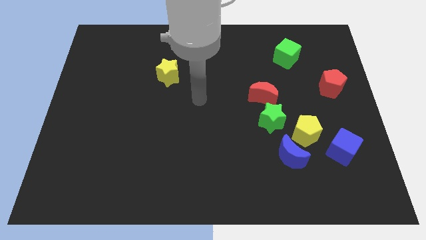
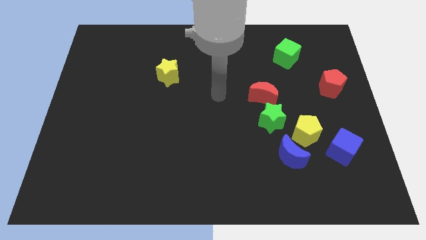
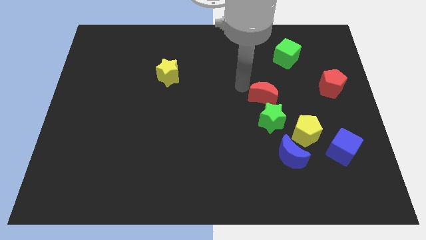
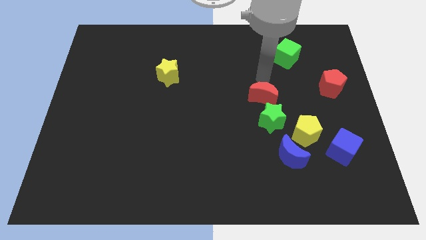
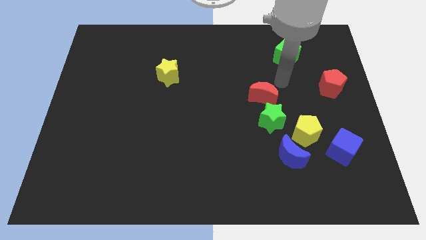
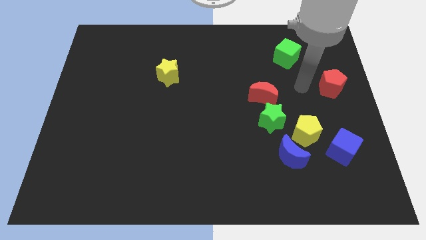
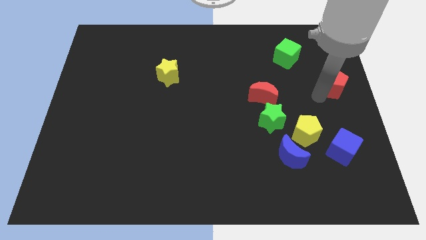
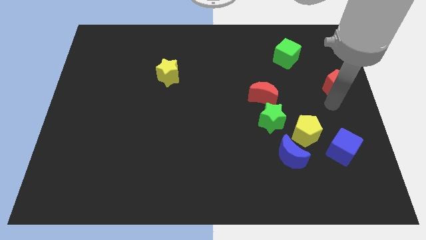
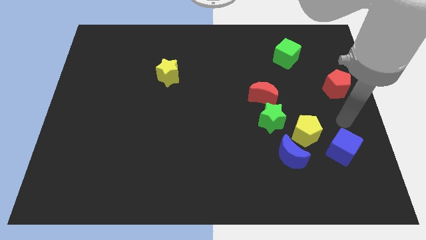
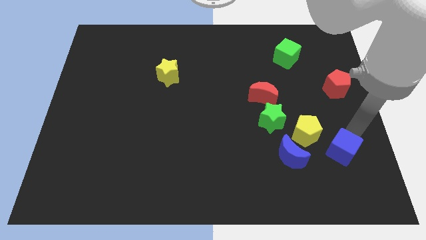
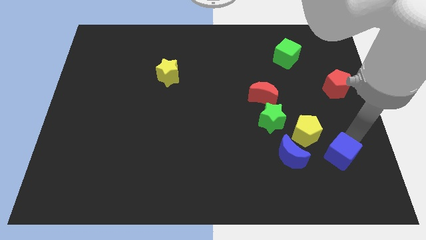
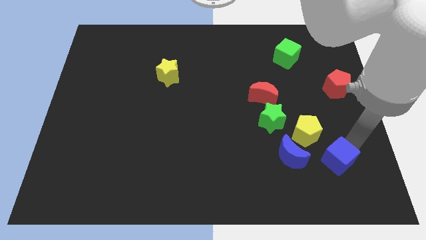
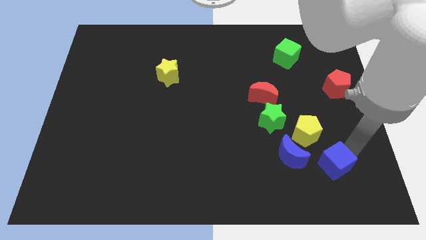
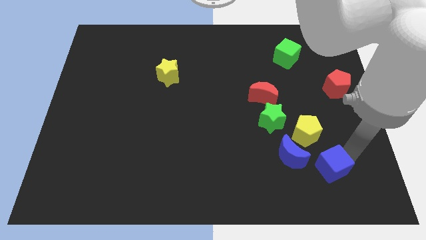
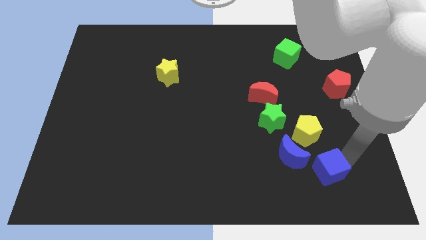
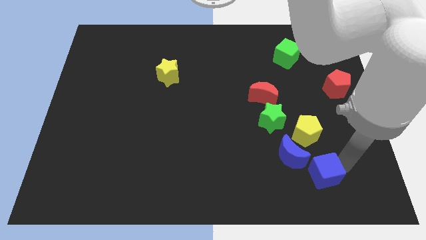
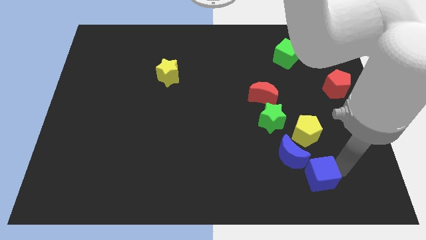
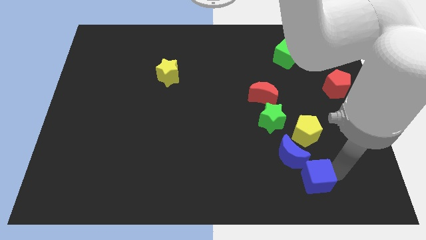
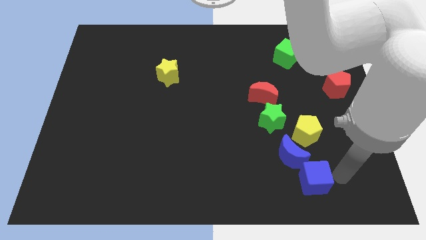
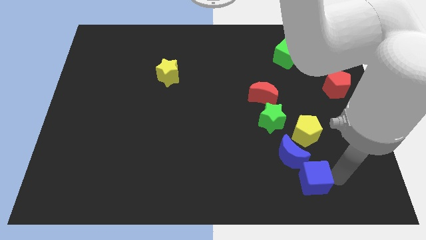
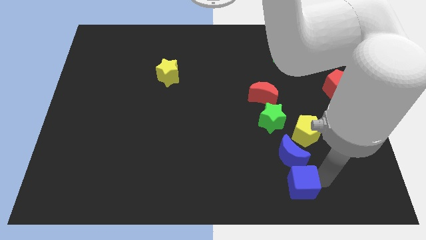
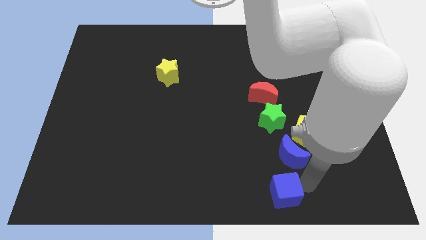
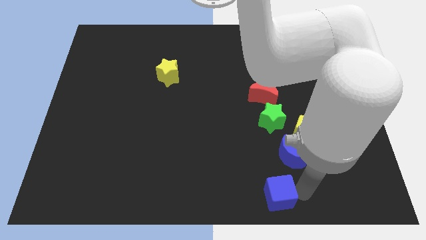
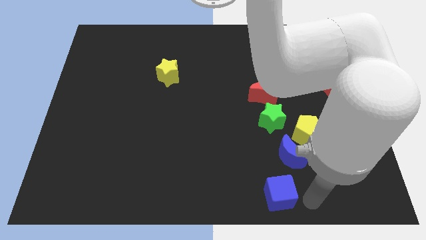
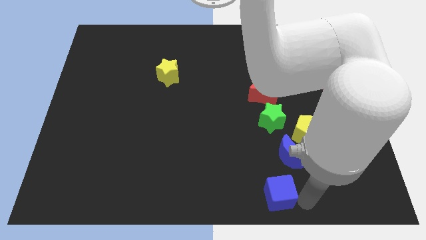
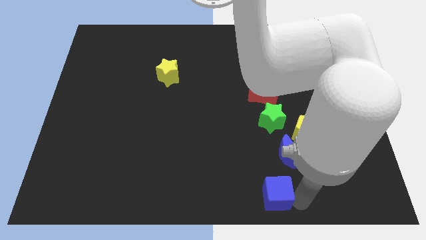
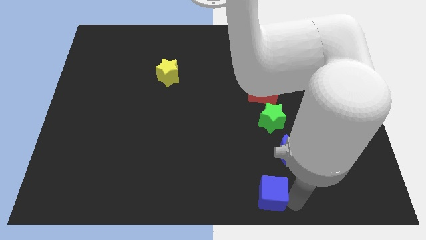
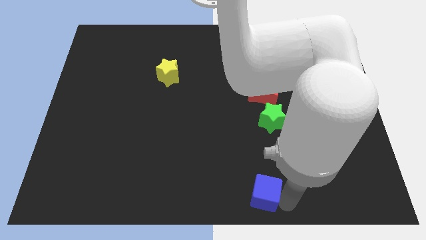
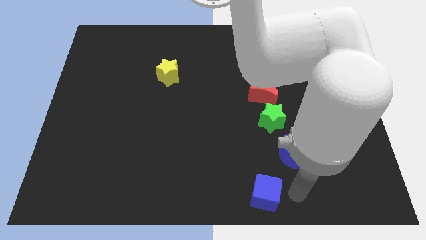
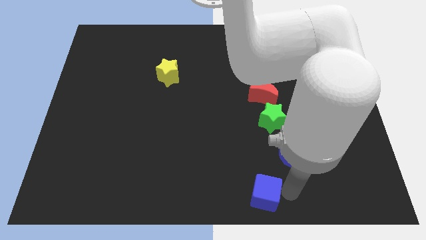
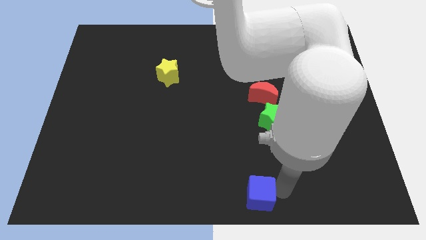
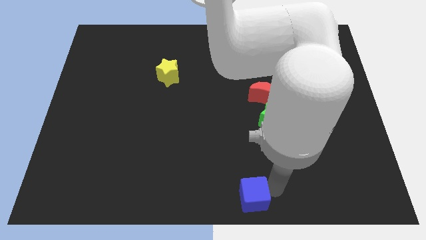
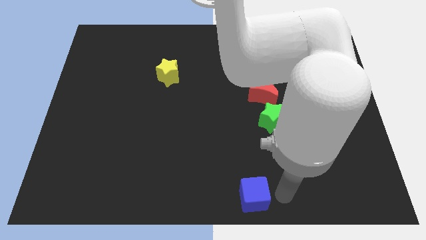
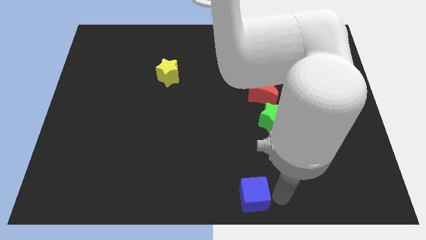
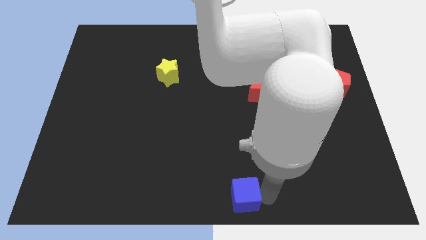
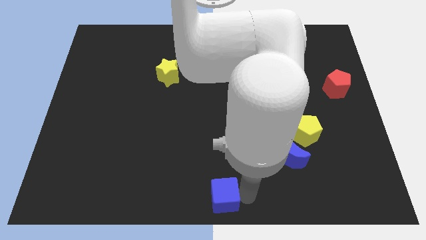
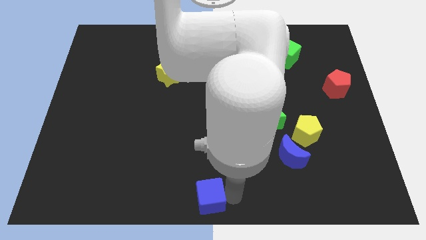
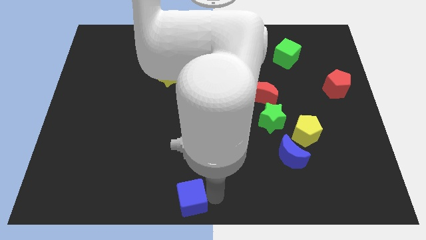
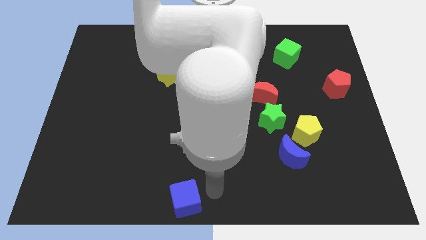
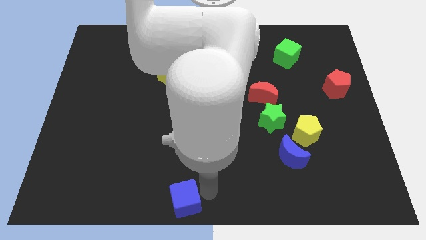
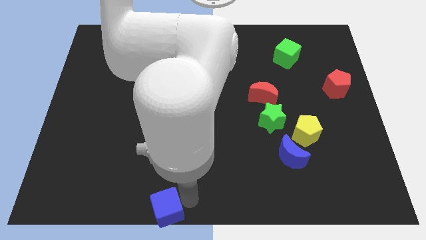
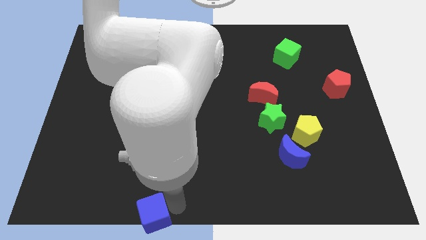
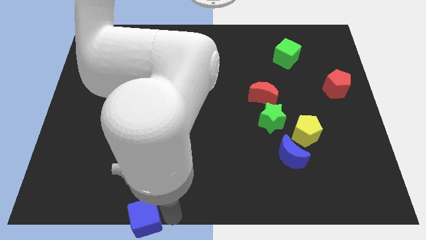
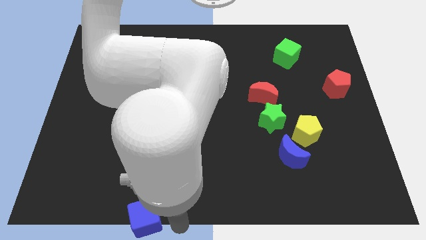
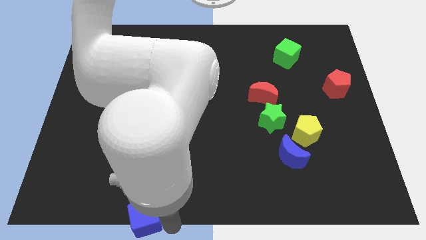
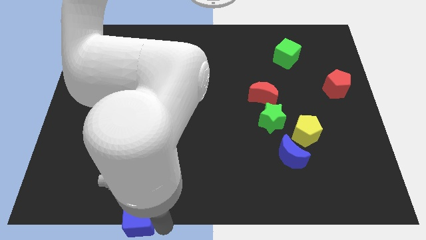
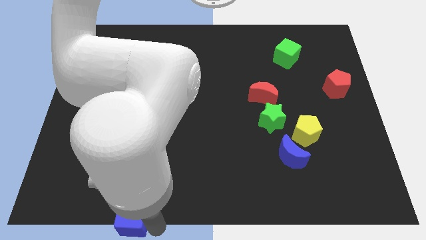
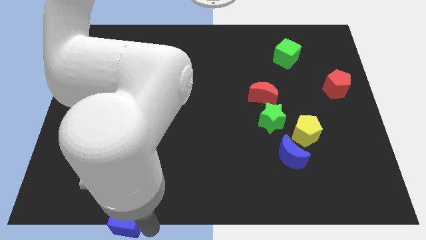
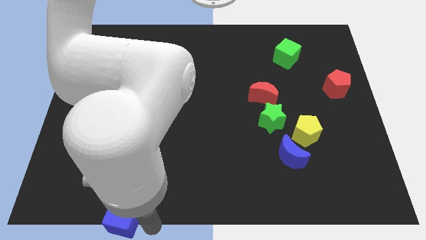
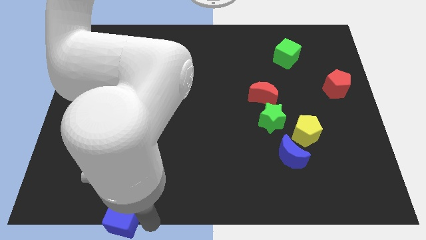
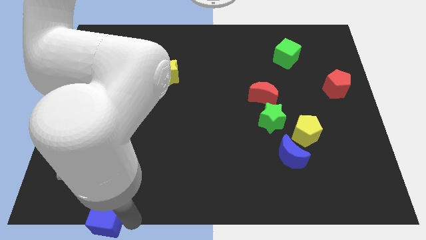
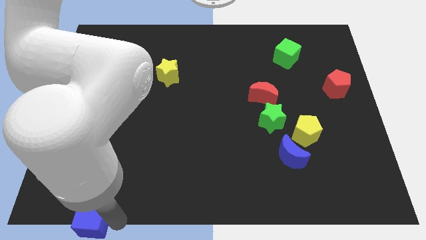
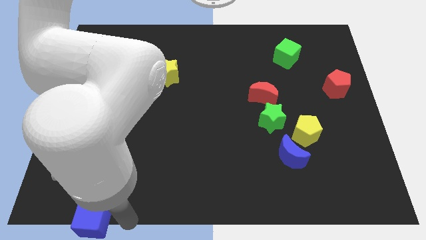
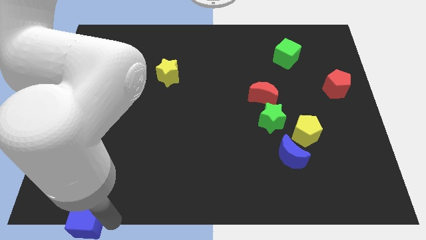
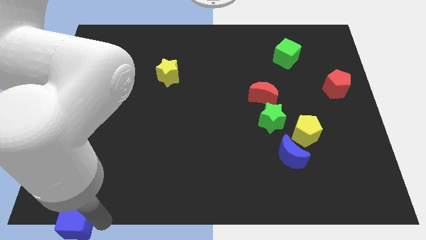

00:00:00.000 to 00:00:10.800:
put the blue cube to the bottom left corner

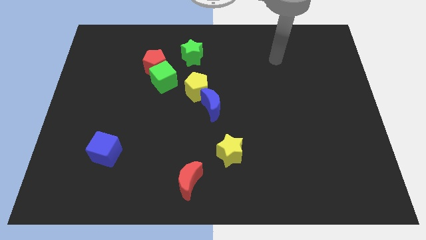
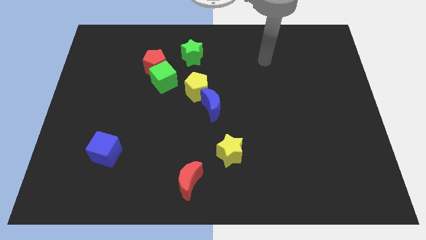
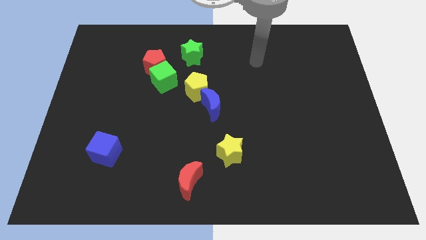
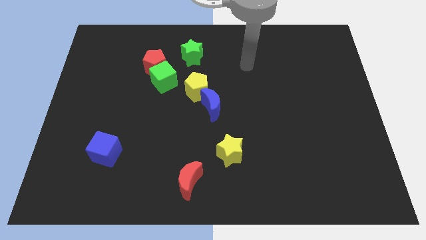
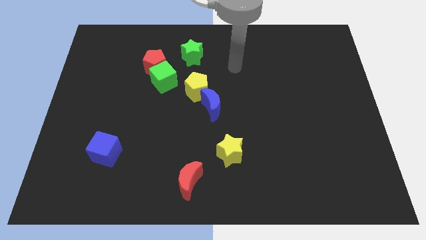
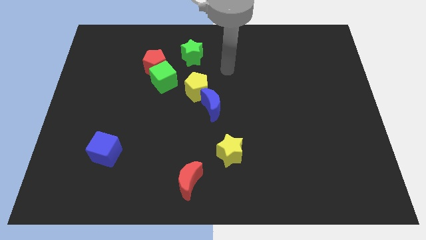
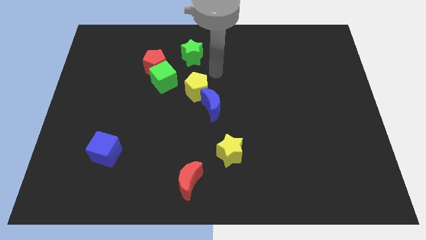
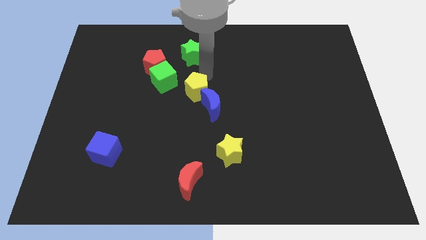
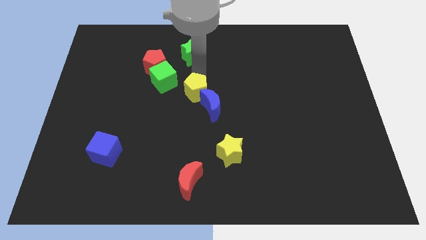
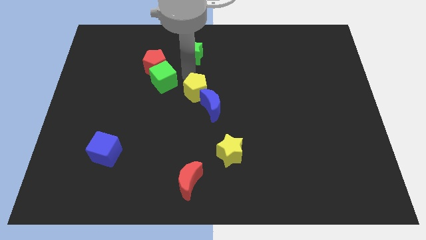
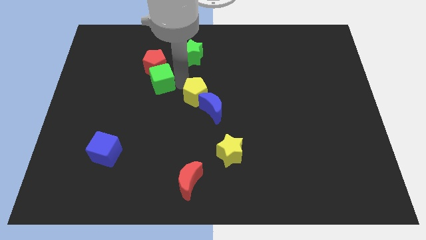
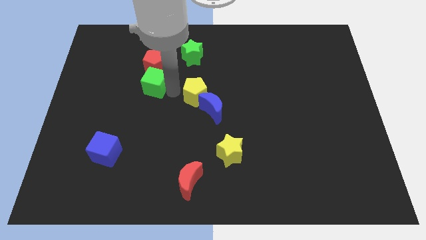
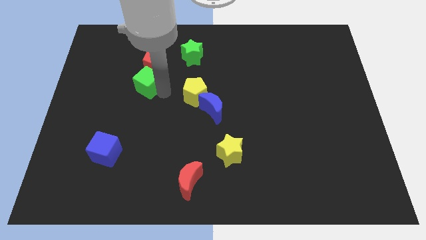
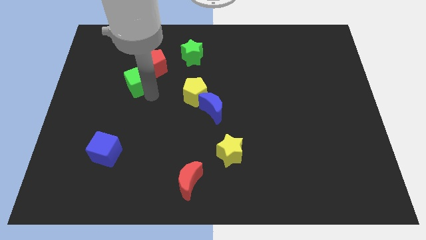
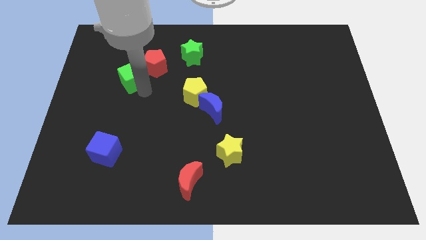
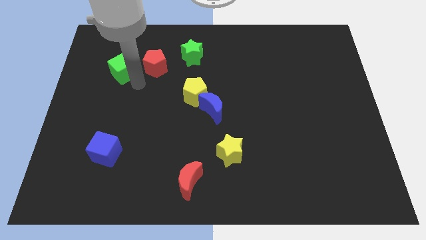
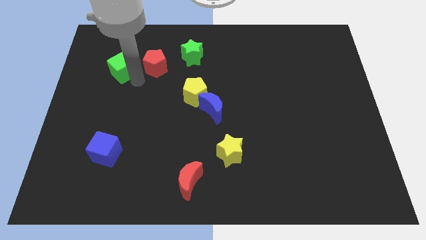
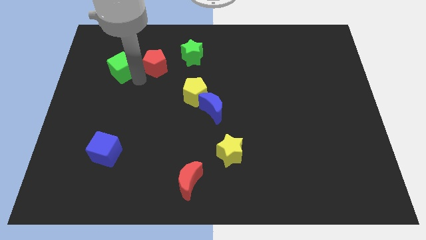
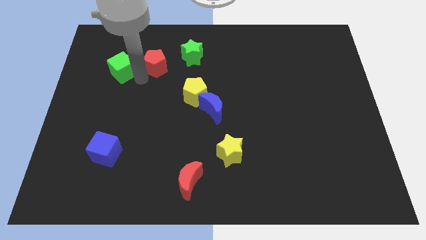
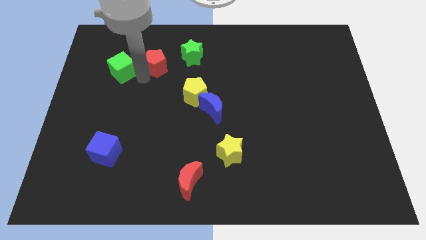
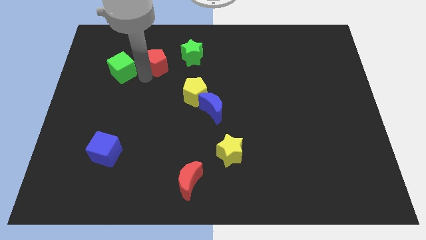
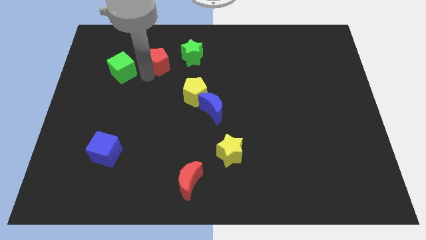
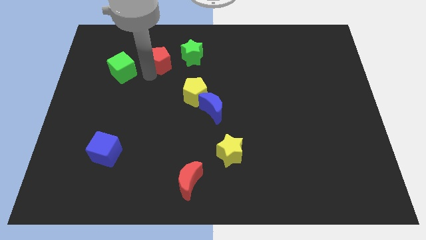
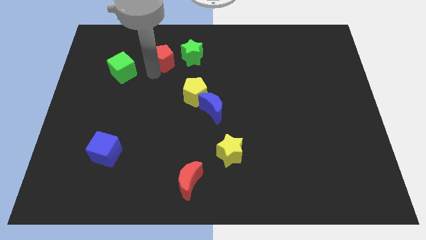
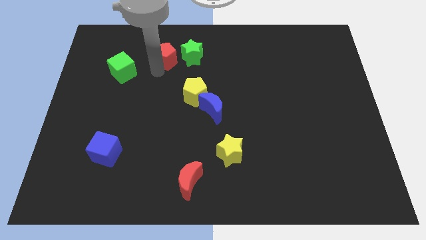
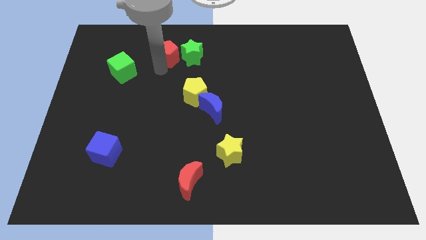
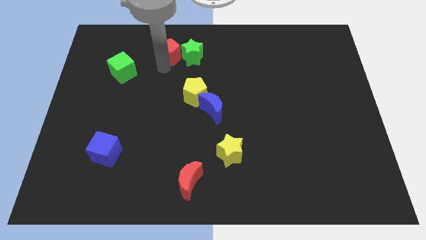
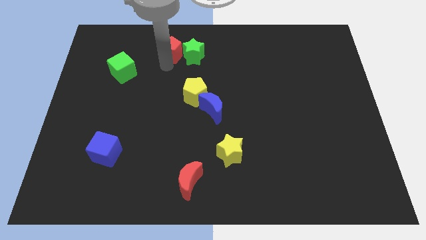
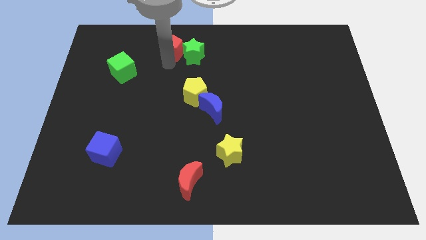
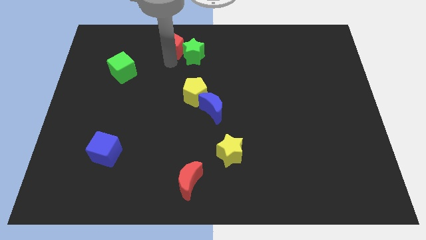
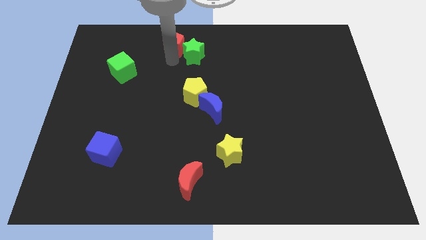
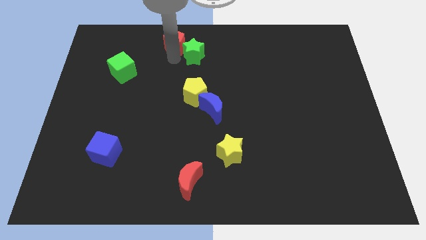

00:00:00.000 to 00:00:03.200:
push the red pentagon to the top
